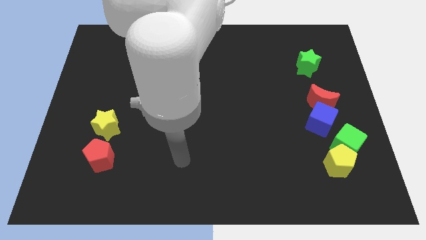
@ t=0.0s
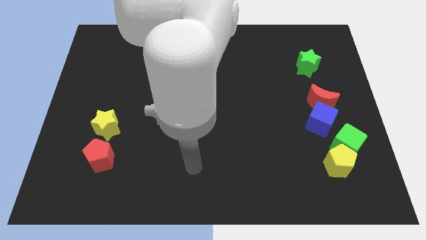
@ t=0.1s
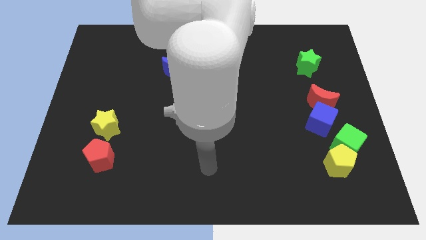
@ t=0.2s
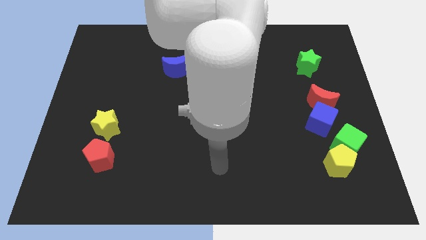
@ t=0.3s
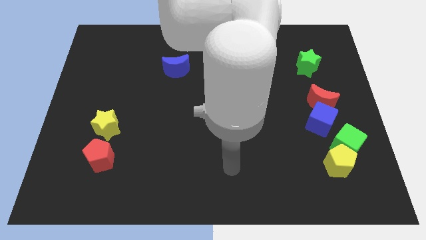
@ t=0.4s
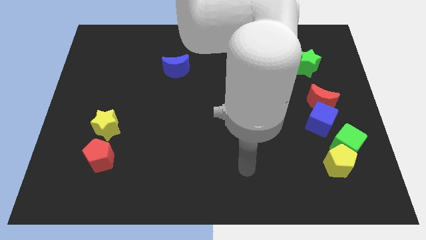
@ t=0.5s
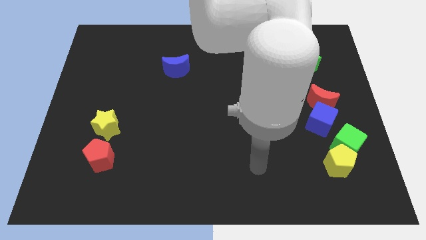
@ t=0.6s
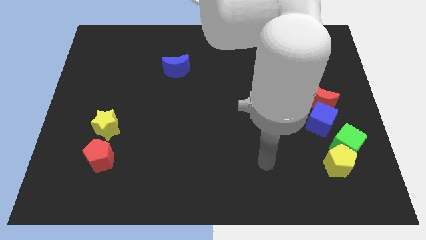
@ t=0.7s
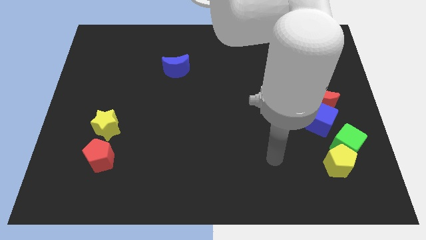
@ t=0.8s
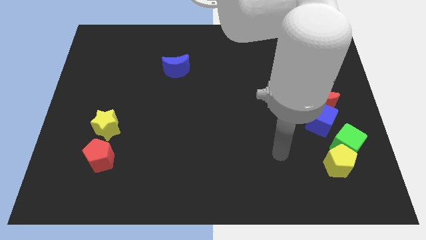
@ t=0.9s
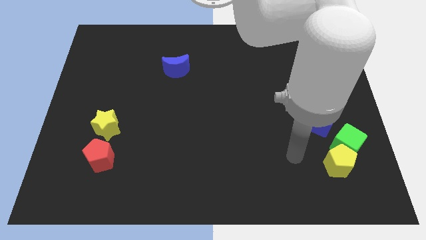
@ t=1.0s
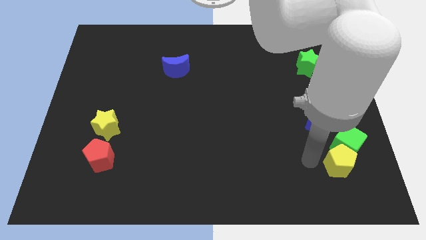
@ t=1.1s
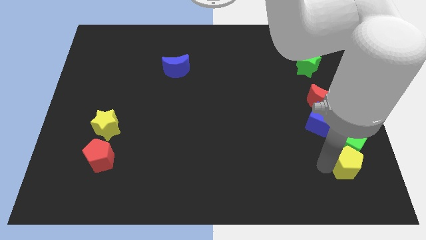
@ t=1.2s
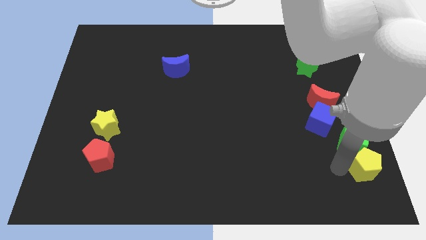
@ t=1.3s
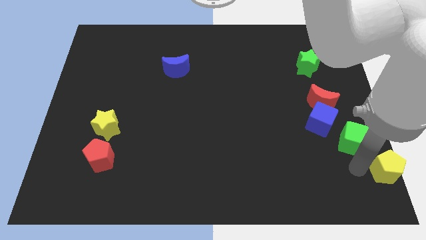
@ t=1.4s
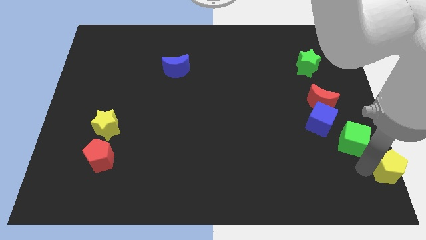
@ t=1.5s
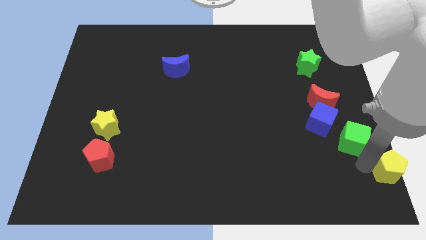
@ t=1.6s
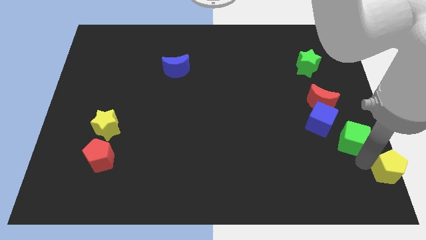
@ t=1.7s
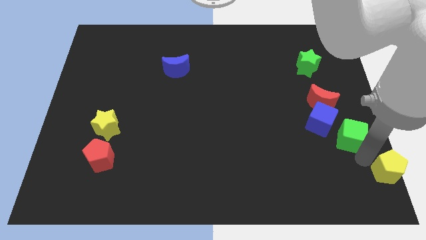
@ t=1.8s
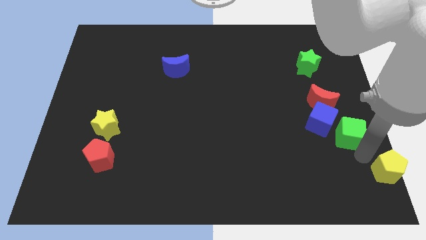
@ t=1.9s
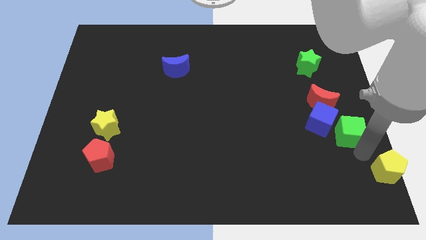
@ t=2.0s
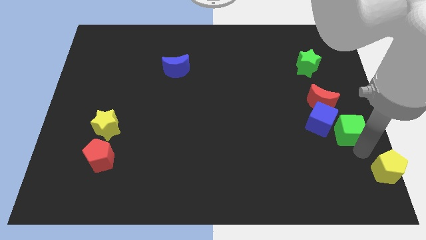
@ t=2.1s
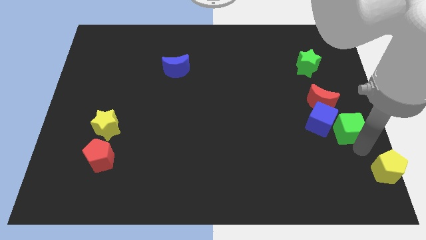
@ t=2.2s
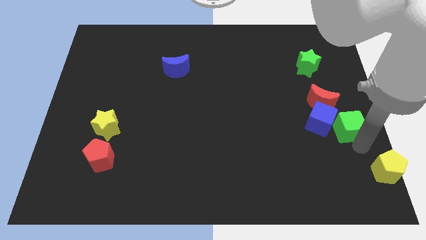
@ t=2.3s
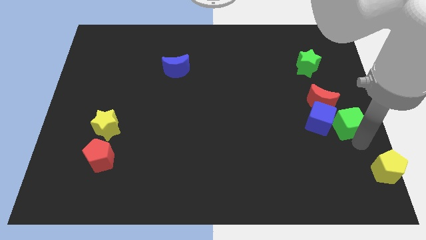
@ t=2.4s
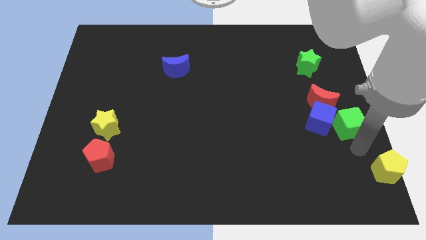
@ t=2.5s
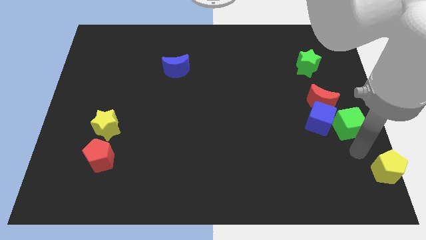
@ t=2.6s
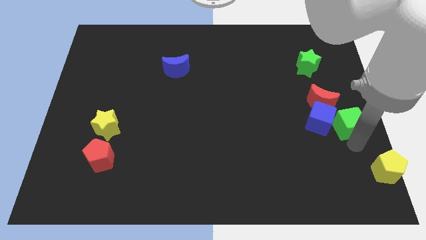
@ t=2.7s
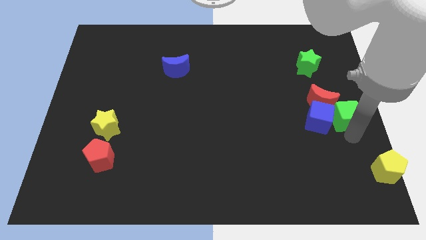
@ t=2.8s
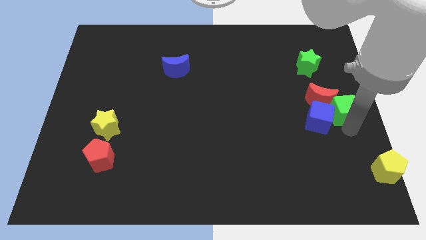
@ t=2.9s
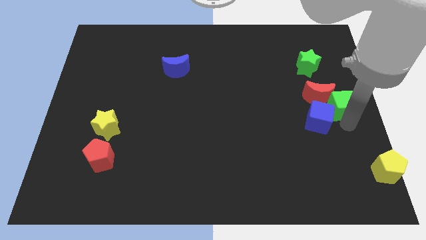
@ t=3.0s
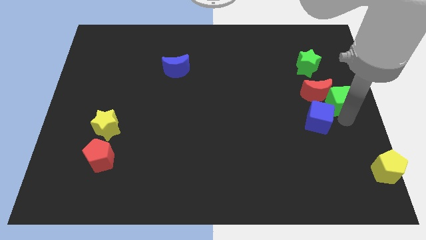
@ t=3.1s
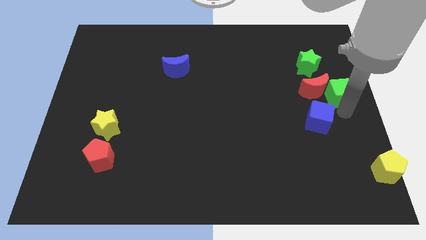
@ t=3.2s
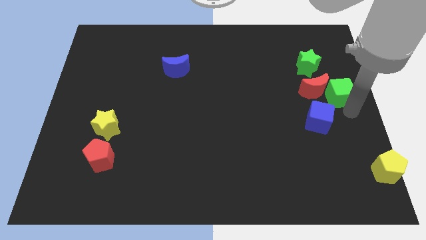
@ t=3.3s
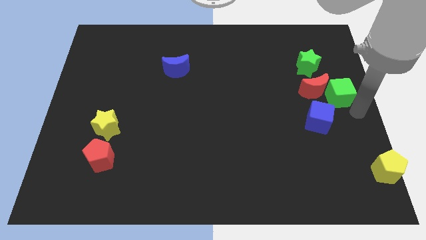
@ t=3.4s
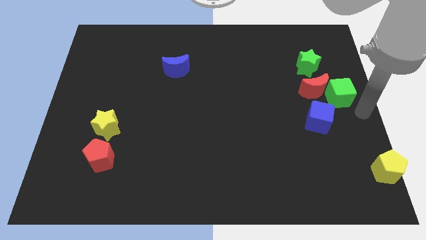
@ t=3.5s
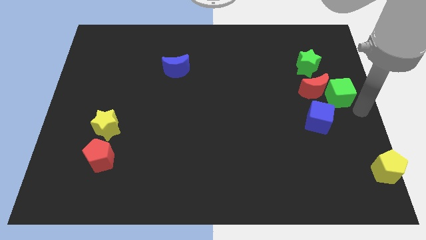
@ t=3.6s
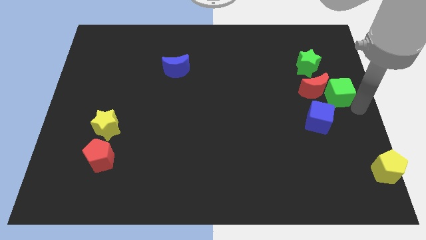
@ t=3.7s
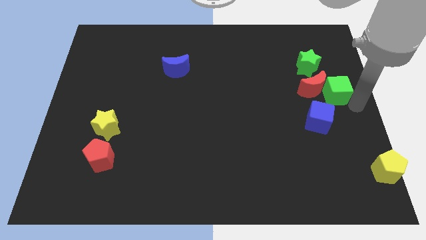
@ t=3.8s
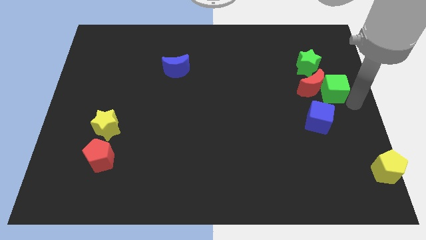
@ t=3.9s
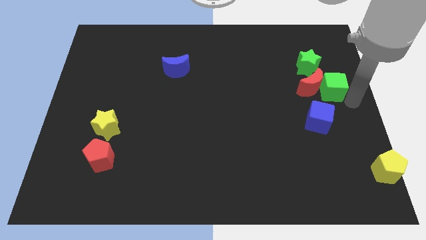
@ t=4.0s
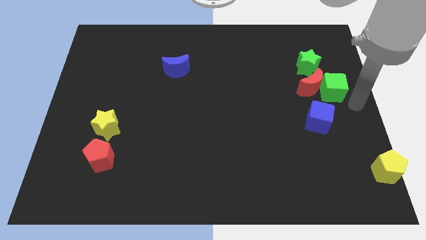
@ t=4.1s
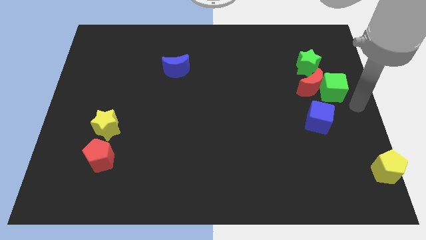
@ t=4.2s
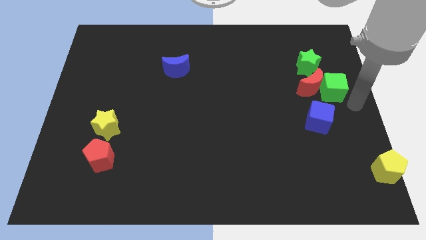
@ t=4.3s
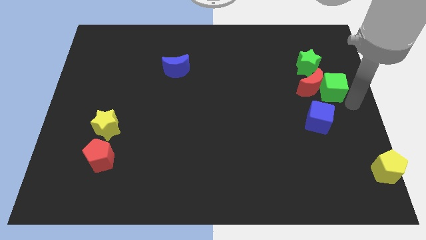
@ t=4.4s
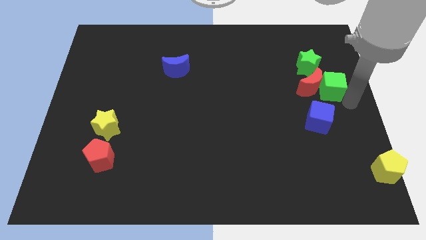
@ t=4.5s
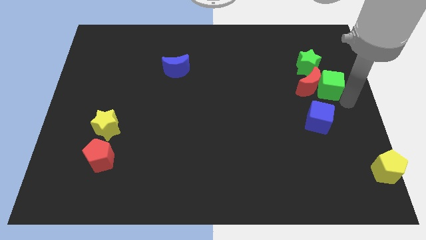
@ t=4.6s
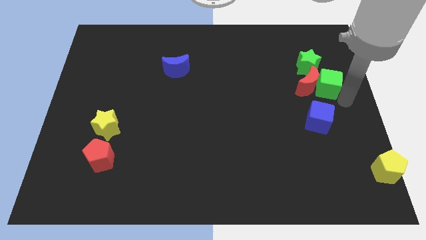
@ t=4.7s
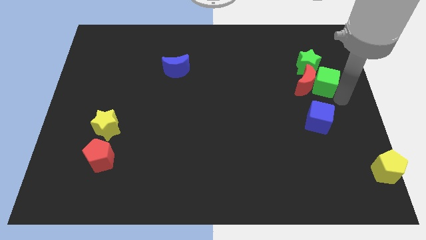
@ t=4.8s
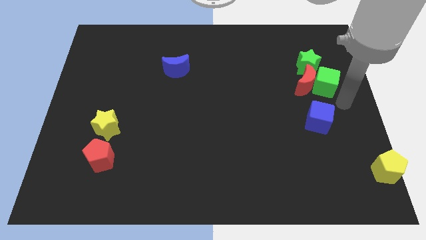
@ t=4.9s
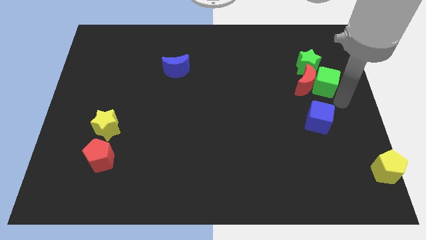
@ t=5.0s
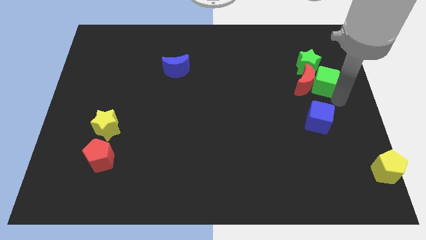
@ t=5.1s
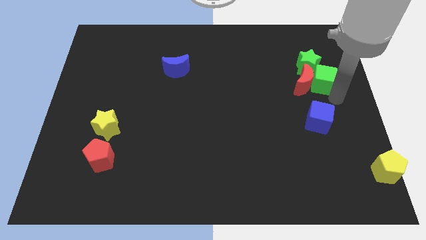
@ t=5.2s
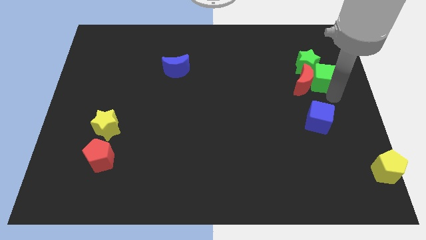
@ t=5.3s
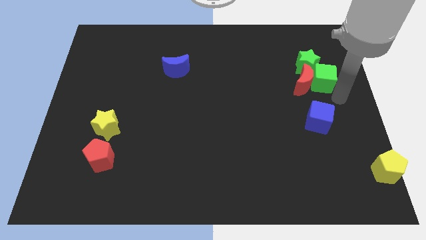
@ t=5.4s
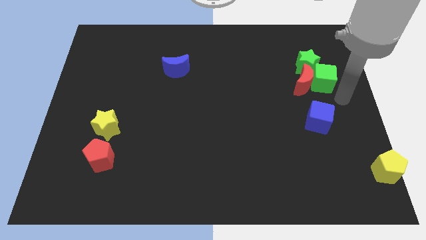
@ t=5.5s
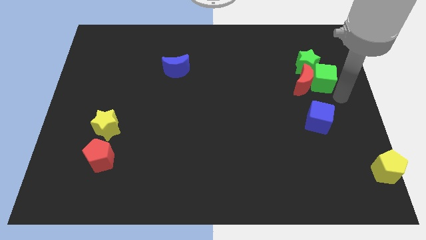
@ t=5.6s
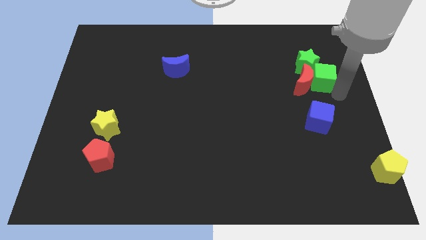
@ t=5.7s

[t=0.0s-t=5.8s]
put the green cube towards the green star

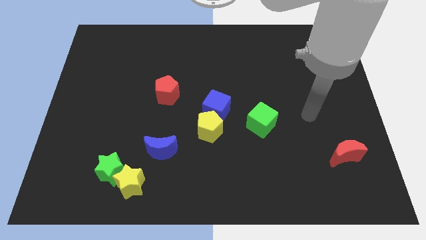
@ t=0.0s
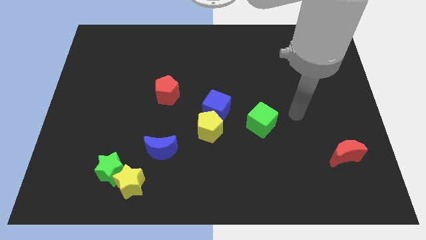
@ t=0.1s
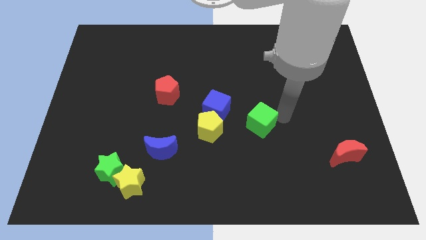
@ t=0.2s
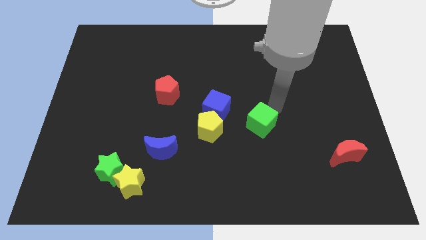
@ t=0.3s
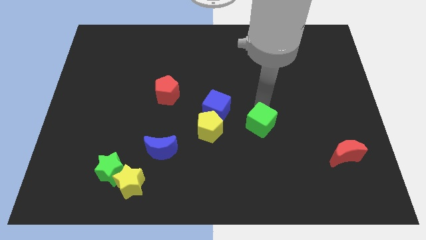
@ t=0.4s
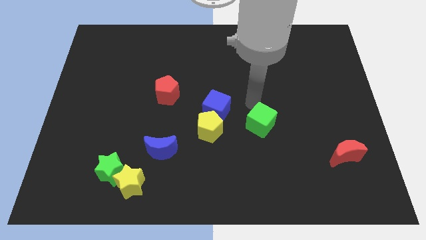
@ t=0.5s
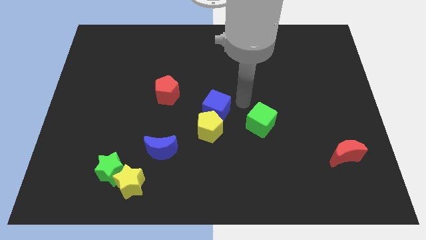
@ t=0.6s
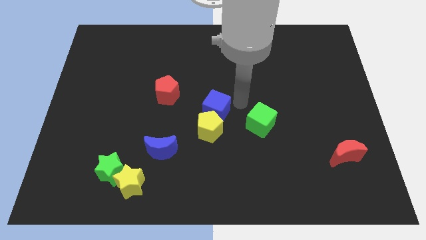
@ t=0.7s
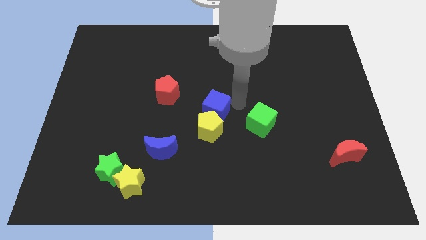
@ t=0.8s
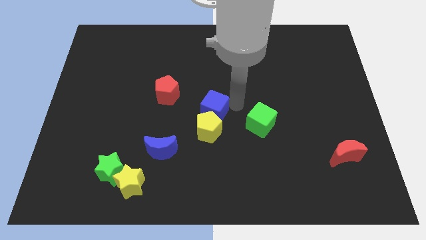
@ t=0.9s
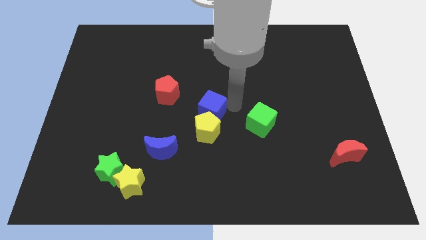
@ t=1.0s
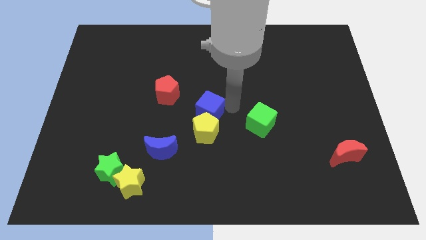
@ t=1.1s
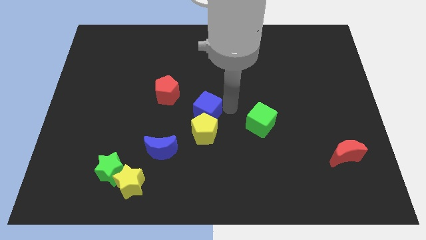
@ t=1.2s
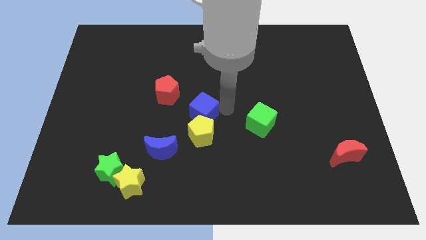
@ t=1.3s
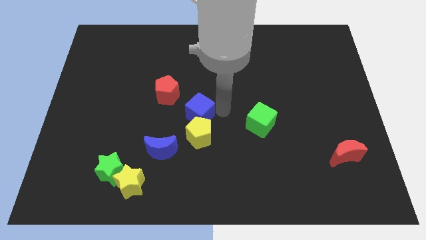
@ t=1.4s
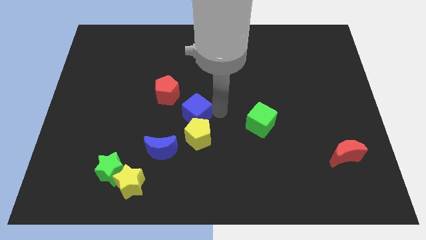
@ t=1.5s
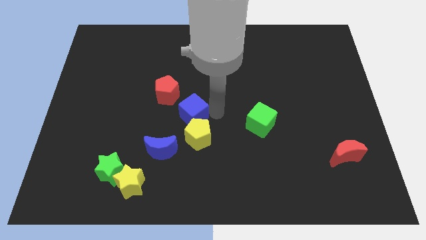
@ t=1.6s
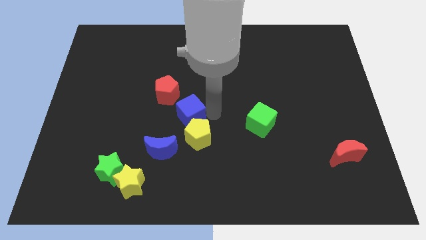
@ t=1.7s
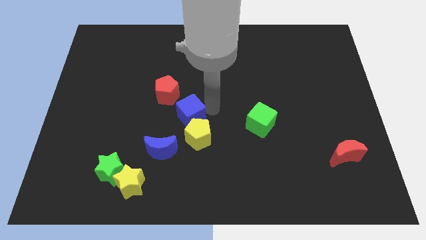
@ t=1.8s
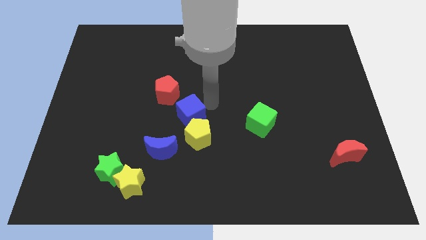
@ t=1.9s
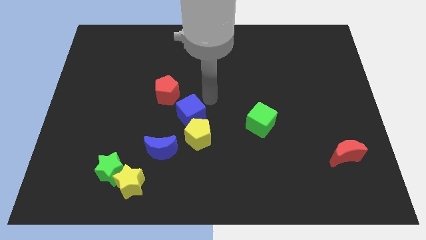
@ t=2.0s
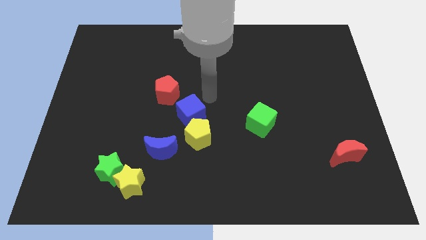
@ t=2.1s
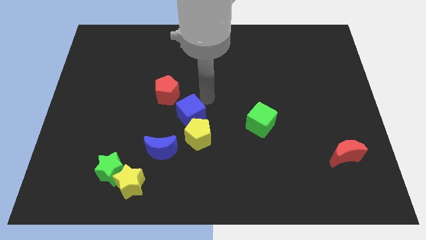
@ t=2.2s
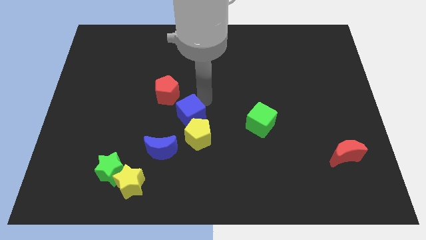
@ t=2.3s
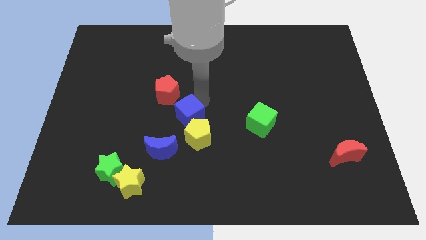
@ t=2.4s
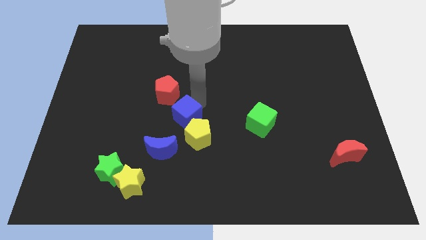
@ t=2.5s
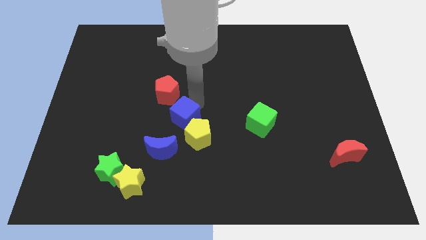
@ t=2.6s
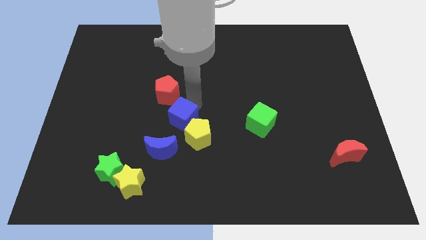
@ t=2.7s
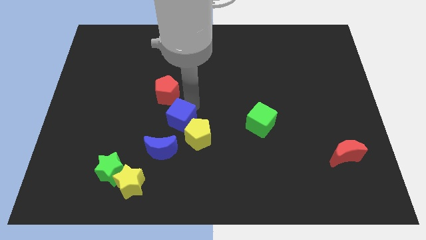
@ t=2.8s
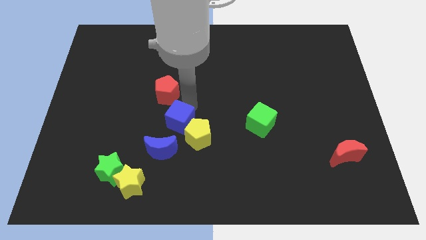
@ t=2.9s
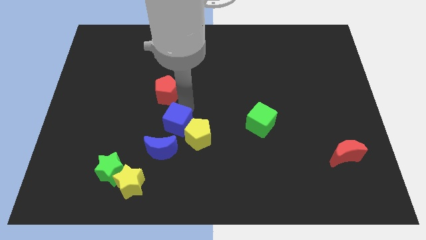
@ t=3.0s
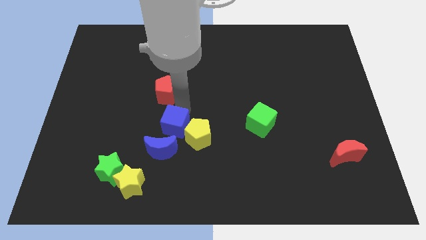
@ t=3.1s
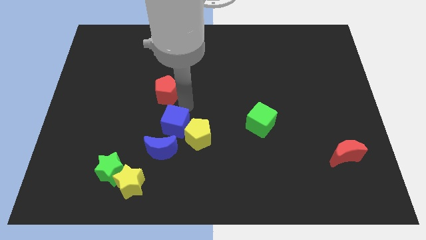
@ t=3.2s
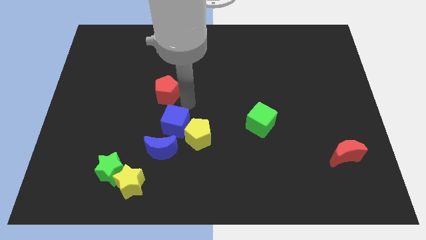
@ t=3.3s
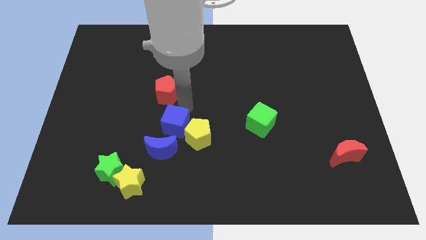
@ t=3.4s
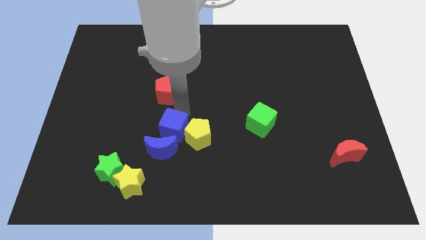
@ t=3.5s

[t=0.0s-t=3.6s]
slide the blue cube next to the blue moon
